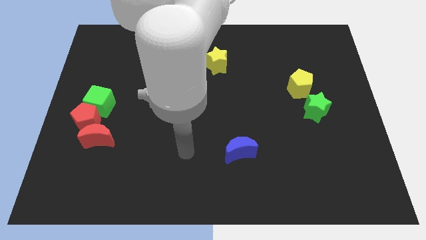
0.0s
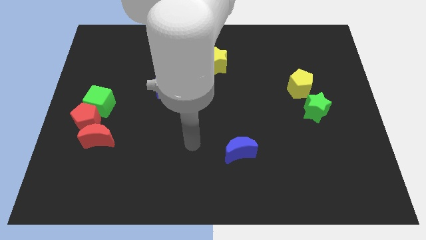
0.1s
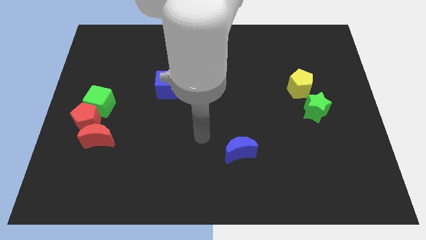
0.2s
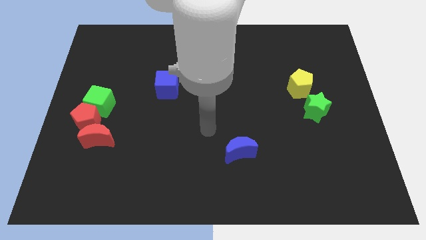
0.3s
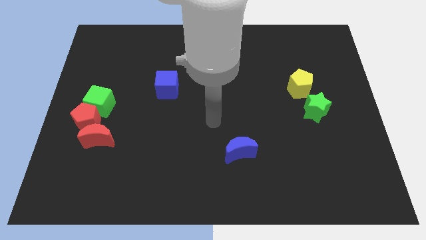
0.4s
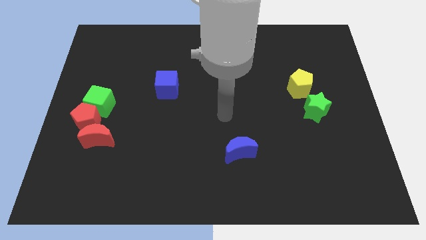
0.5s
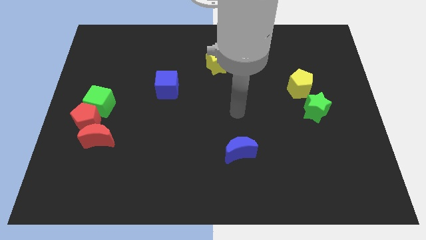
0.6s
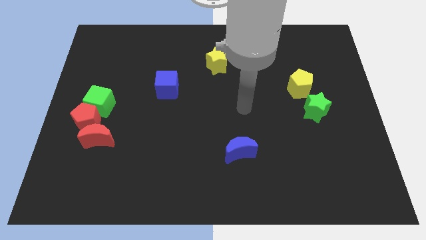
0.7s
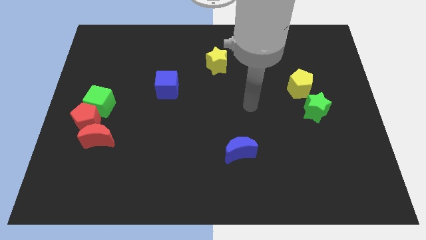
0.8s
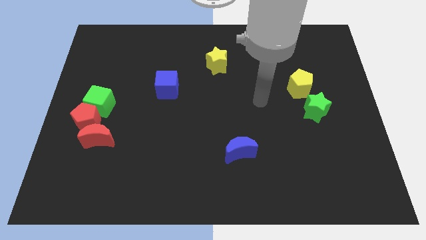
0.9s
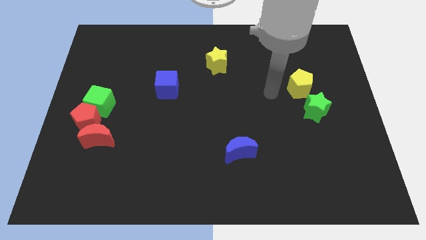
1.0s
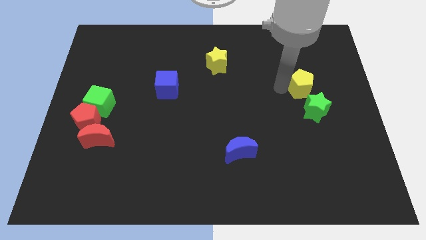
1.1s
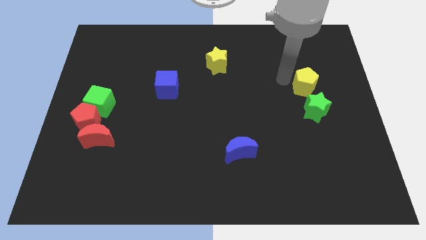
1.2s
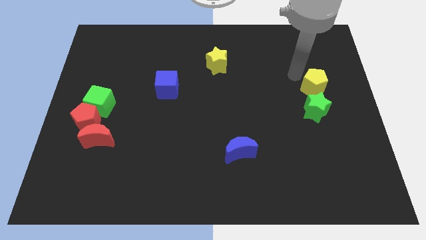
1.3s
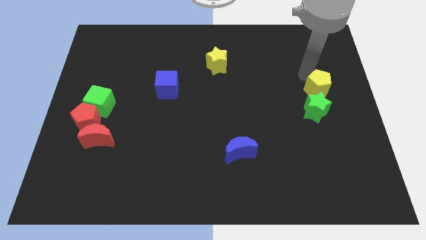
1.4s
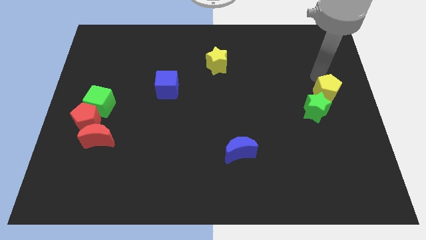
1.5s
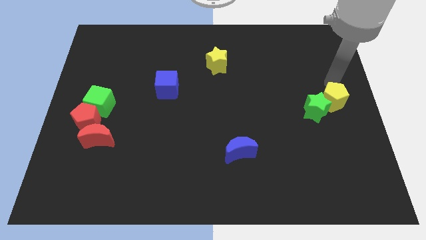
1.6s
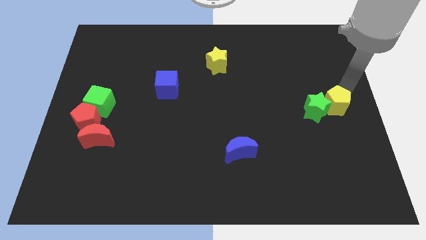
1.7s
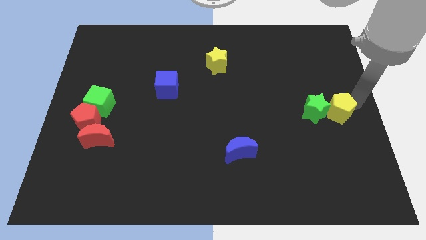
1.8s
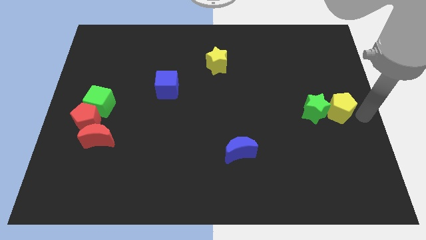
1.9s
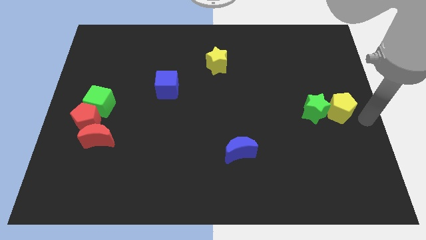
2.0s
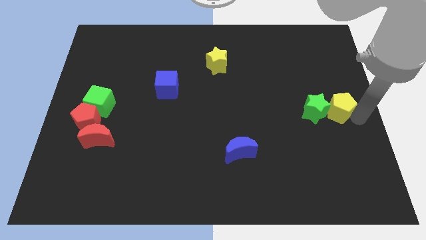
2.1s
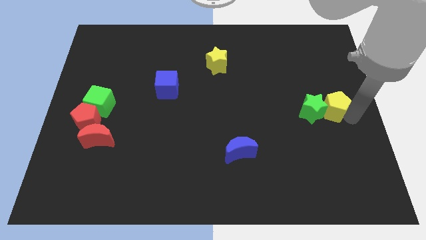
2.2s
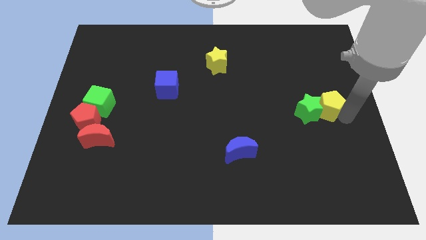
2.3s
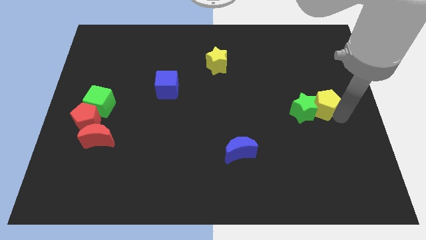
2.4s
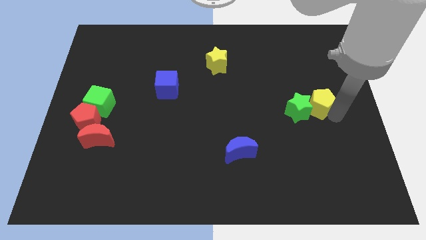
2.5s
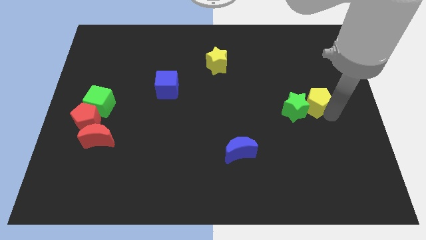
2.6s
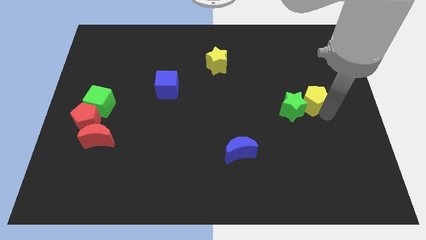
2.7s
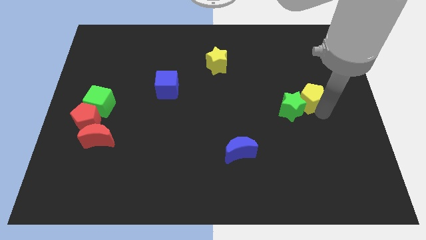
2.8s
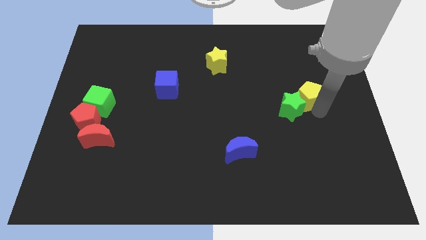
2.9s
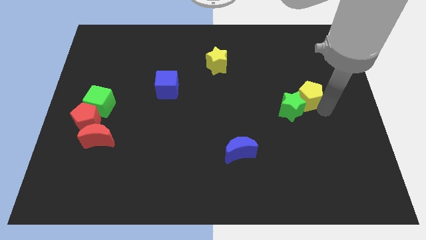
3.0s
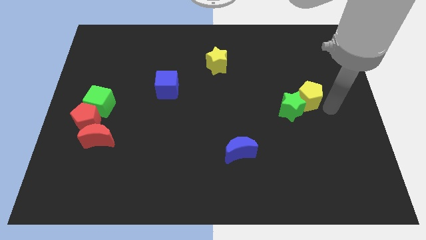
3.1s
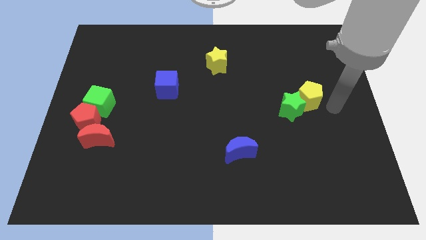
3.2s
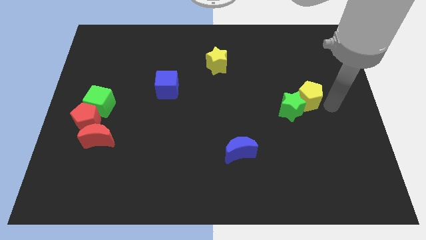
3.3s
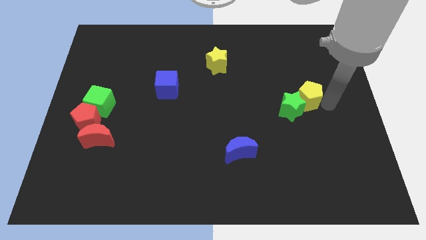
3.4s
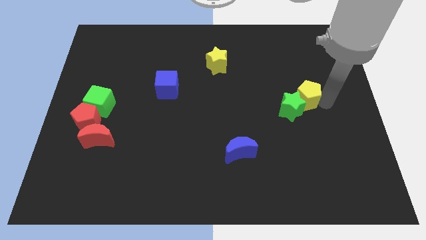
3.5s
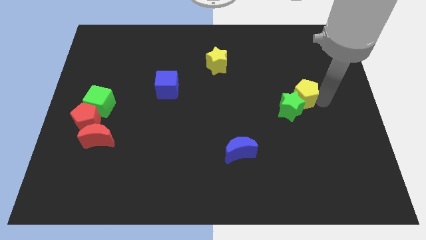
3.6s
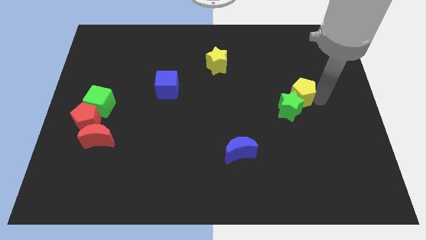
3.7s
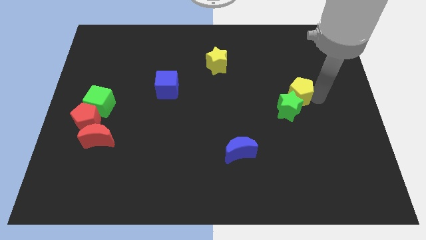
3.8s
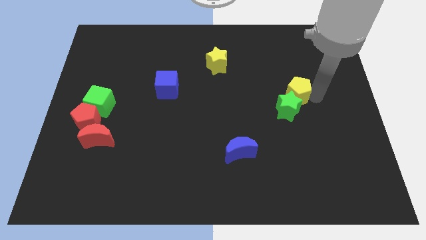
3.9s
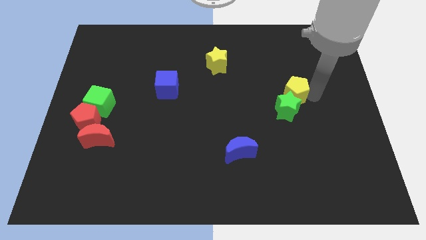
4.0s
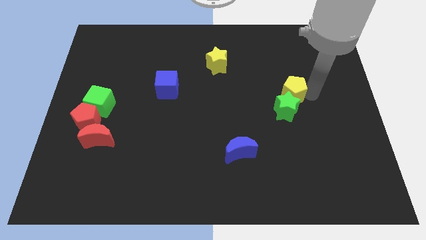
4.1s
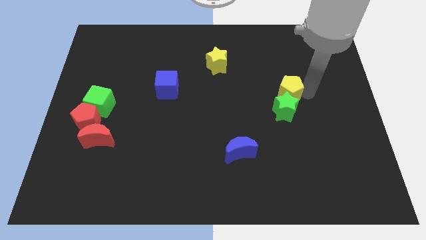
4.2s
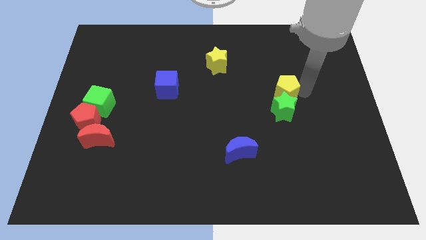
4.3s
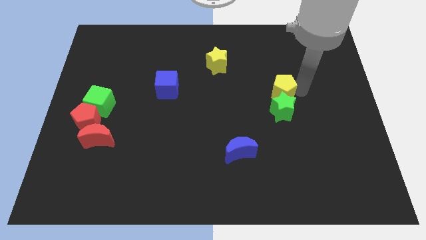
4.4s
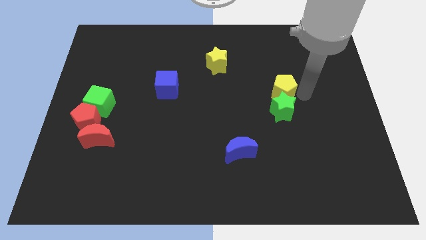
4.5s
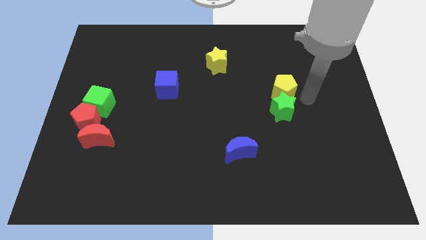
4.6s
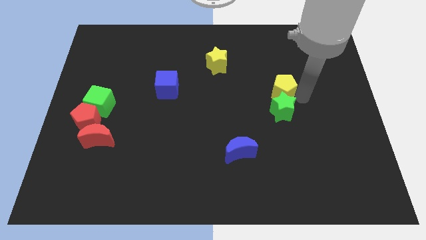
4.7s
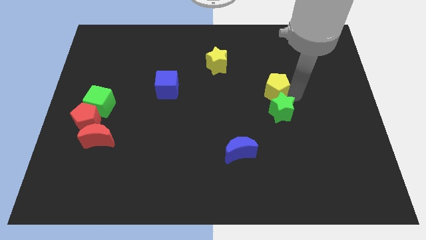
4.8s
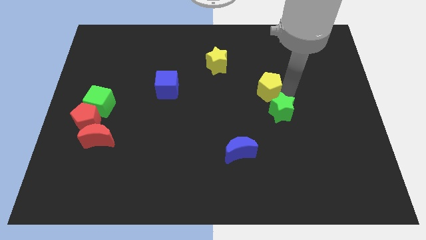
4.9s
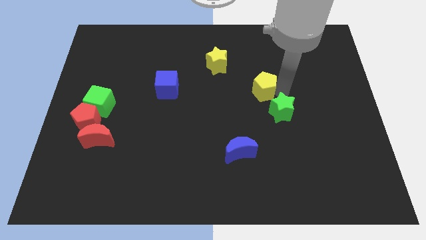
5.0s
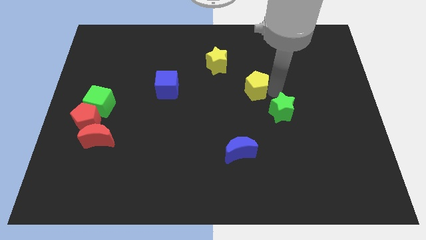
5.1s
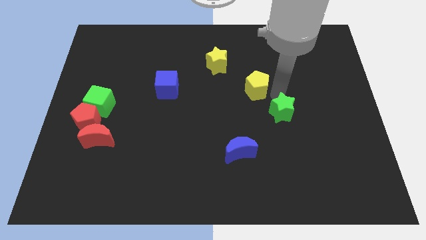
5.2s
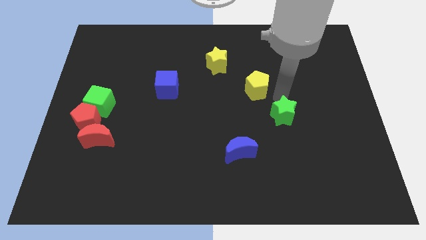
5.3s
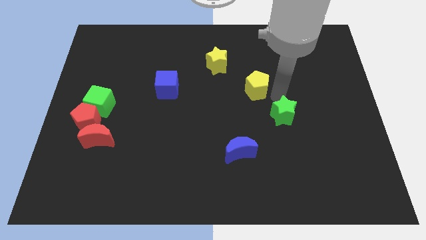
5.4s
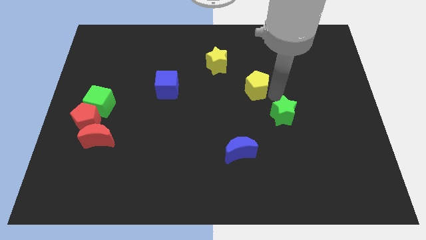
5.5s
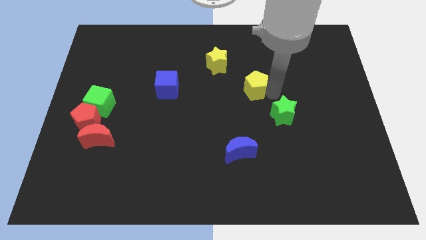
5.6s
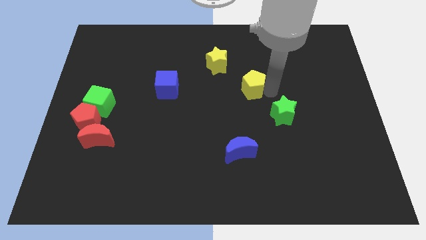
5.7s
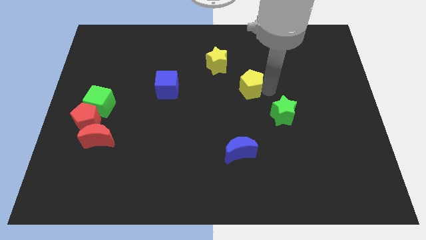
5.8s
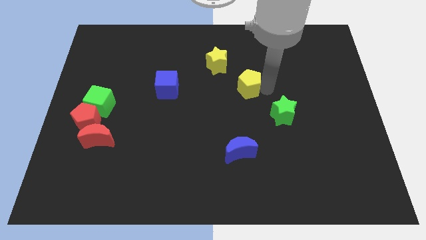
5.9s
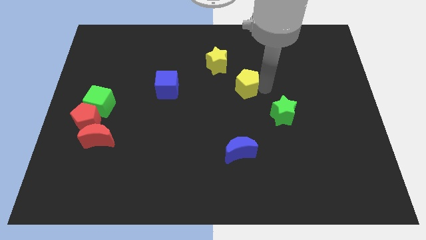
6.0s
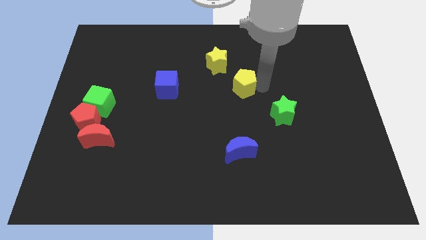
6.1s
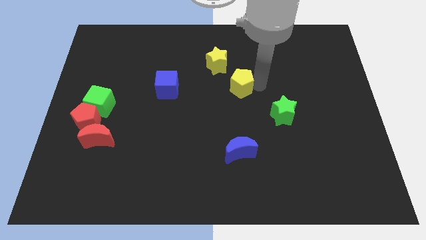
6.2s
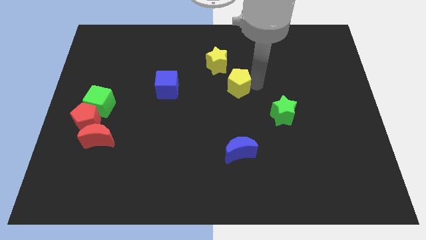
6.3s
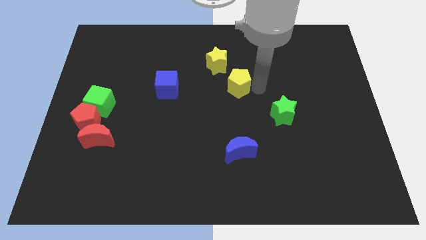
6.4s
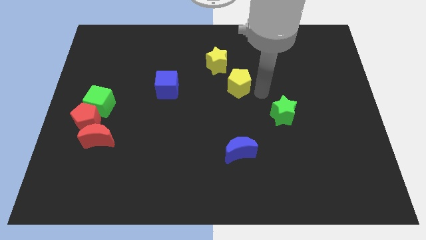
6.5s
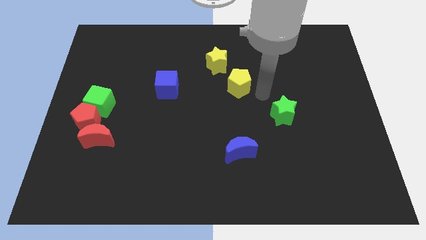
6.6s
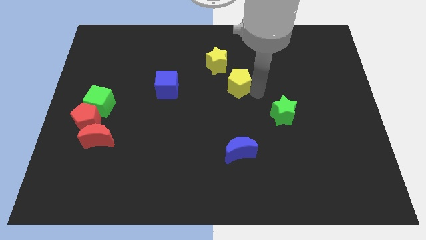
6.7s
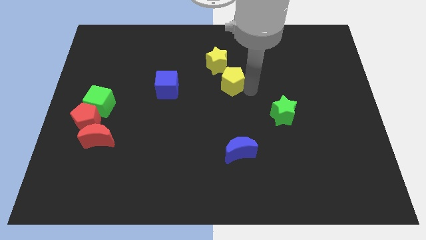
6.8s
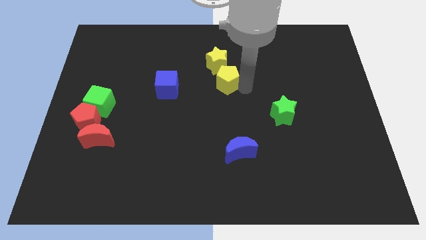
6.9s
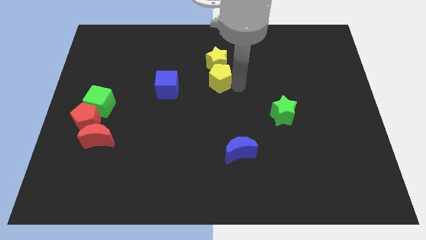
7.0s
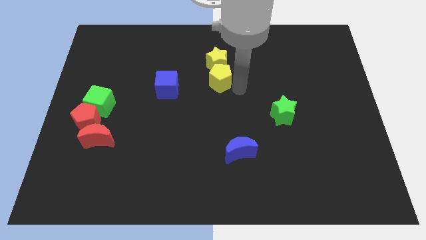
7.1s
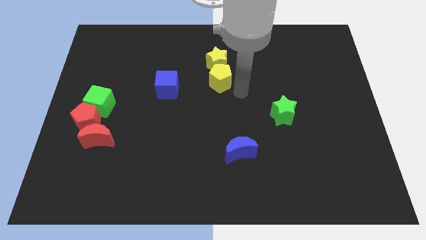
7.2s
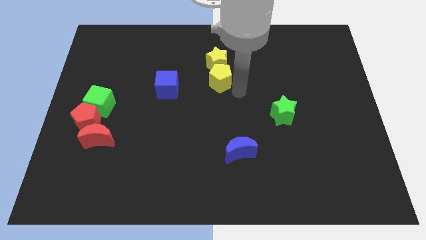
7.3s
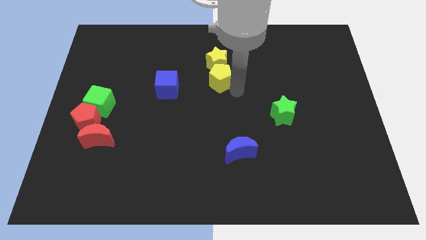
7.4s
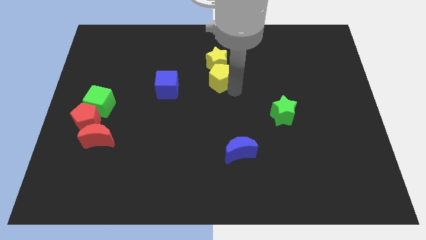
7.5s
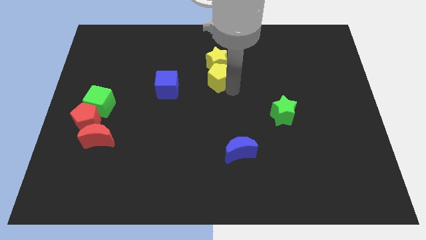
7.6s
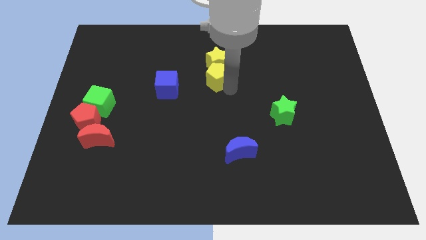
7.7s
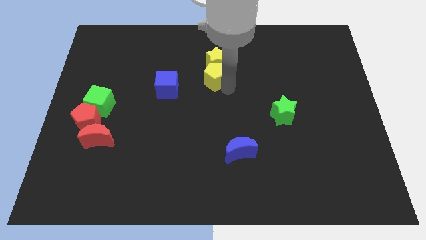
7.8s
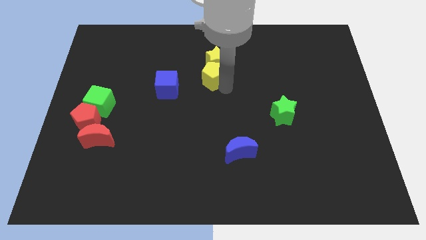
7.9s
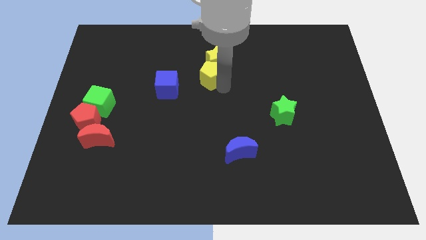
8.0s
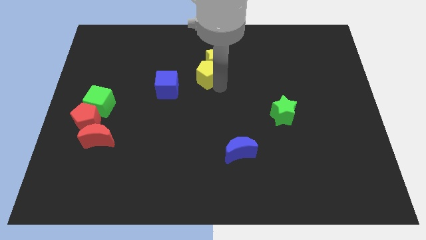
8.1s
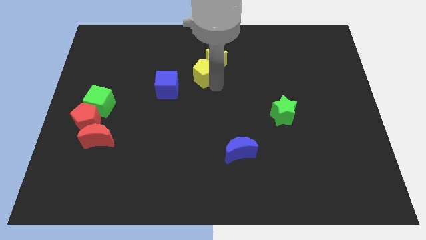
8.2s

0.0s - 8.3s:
push the yellow pentagon left of the yellow star

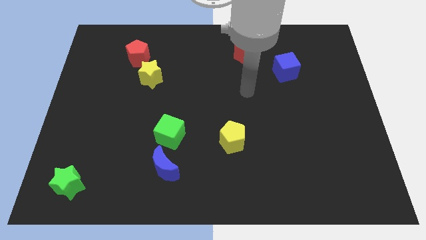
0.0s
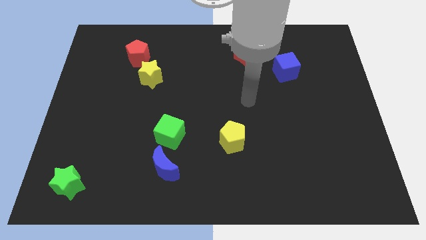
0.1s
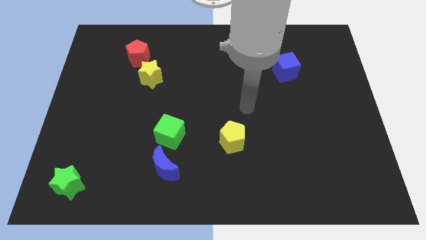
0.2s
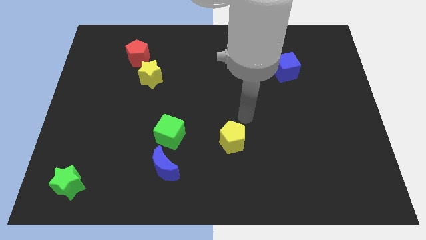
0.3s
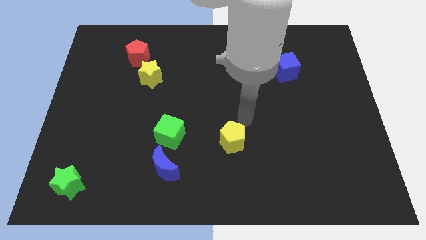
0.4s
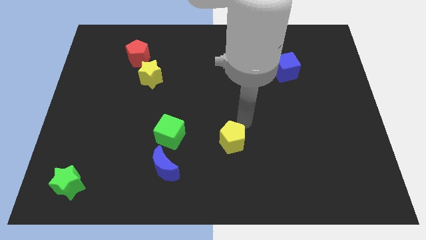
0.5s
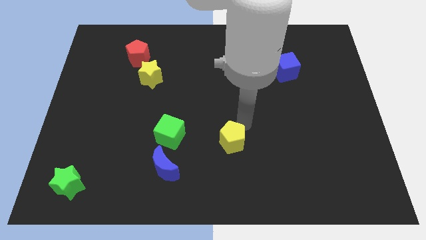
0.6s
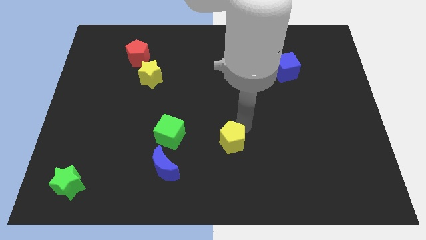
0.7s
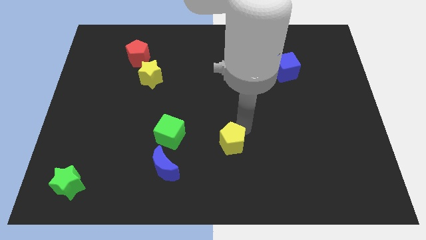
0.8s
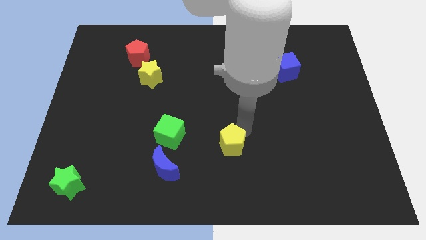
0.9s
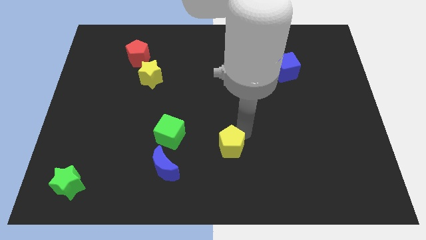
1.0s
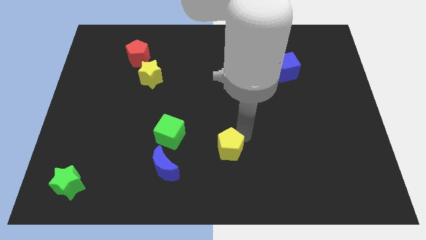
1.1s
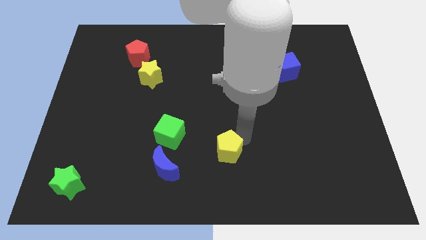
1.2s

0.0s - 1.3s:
move the yellow pentagon just right of the blue moon
